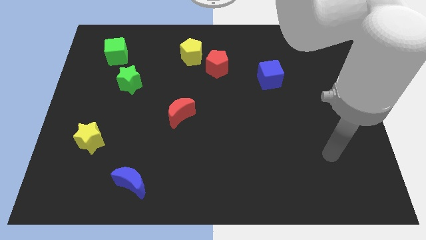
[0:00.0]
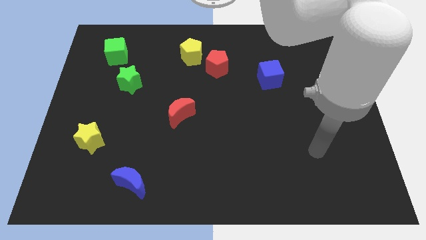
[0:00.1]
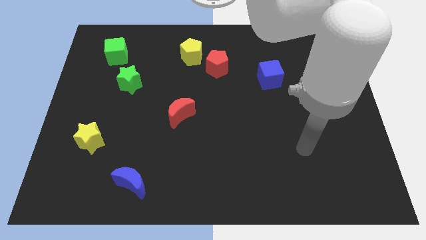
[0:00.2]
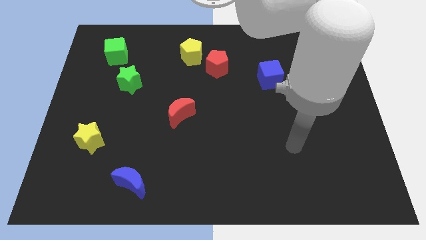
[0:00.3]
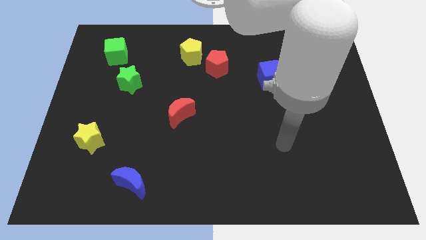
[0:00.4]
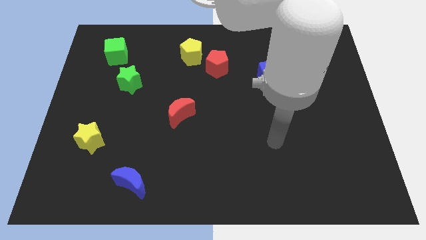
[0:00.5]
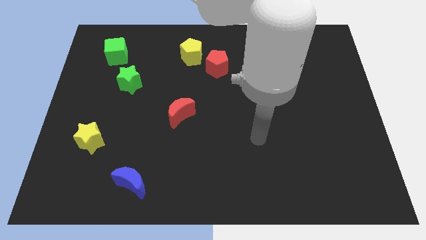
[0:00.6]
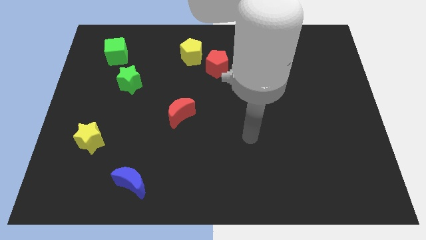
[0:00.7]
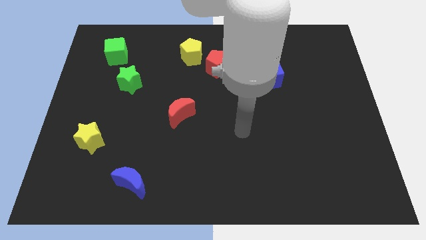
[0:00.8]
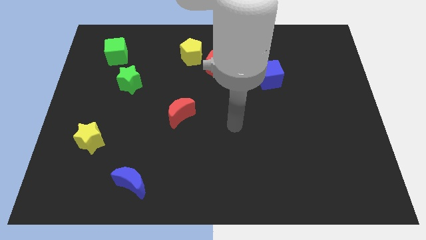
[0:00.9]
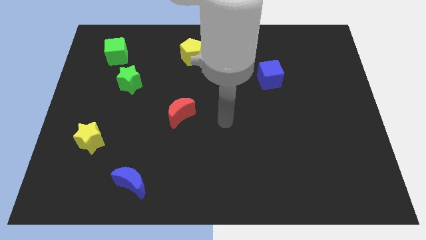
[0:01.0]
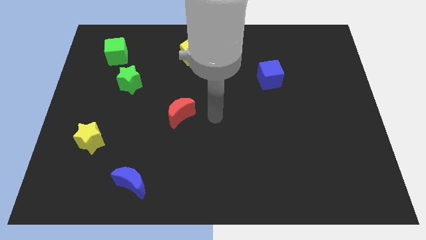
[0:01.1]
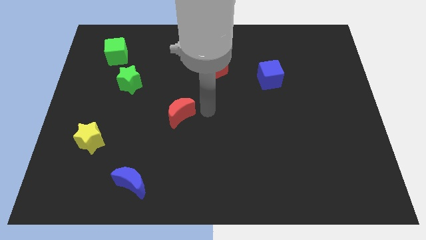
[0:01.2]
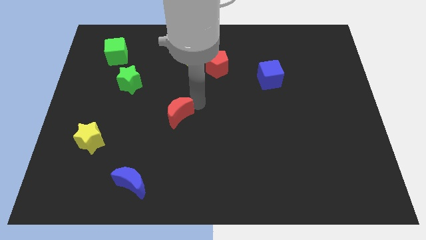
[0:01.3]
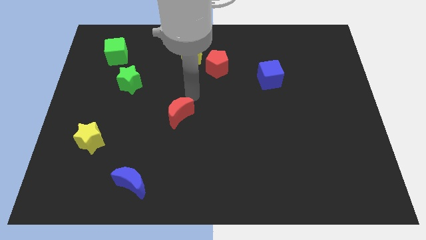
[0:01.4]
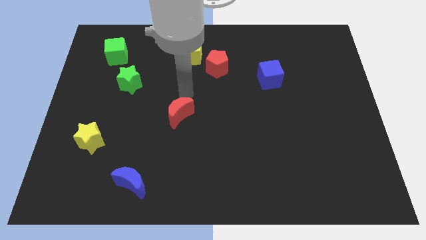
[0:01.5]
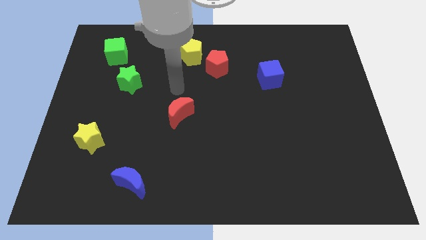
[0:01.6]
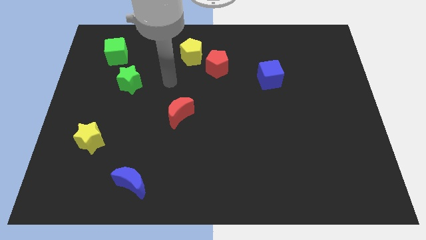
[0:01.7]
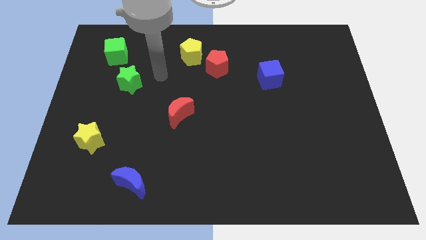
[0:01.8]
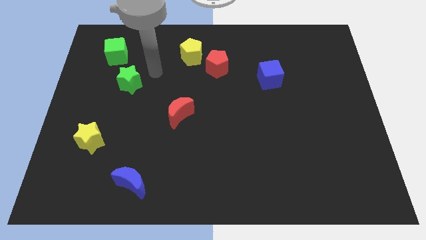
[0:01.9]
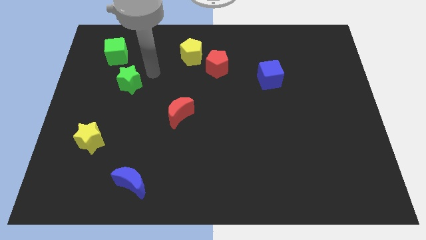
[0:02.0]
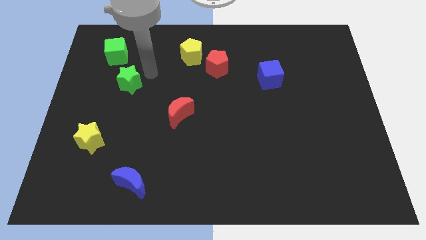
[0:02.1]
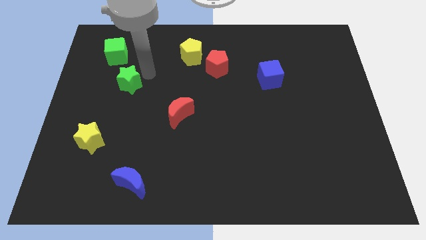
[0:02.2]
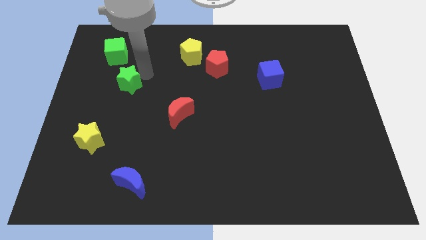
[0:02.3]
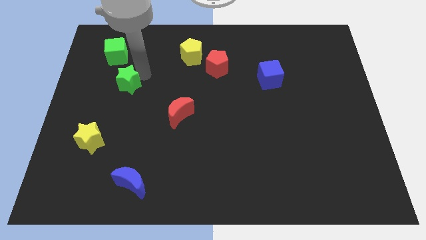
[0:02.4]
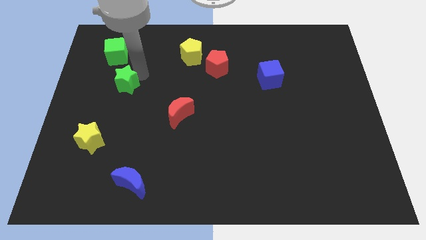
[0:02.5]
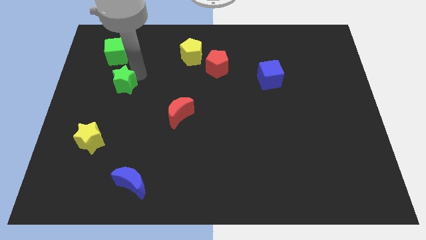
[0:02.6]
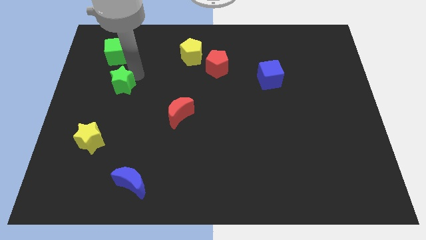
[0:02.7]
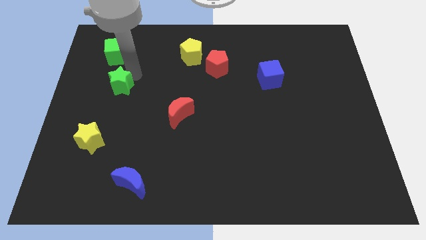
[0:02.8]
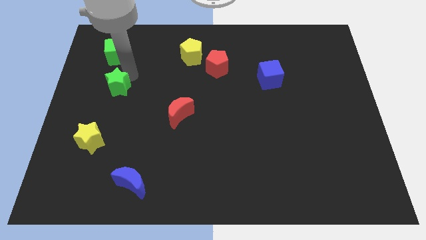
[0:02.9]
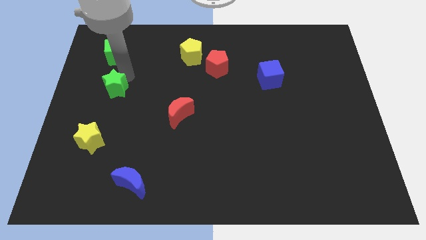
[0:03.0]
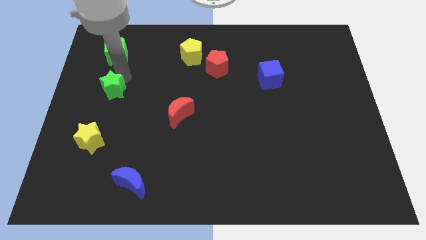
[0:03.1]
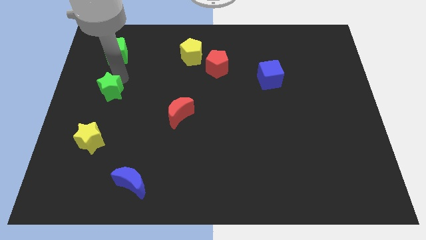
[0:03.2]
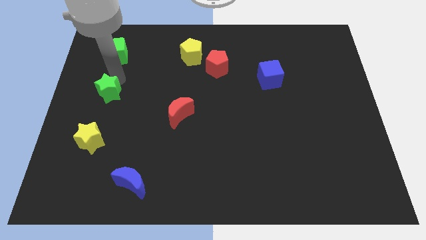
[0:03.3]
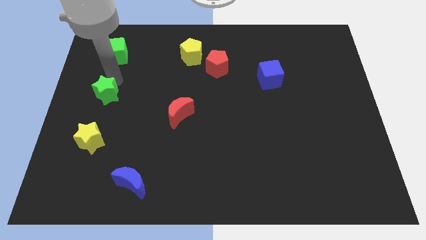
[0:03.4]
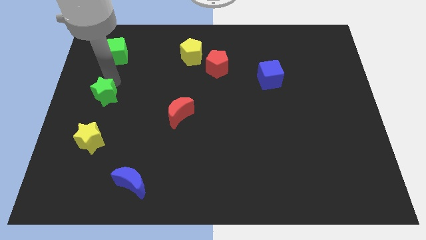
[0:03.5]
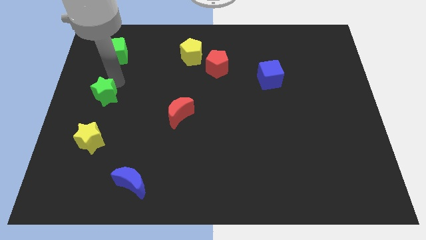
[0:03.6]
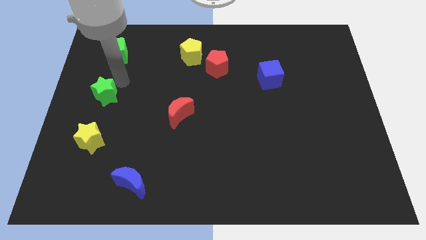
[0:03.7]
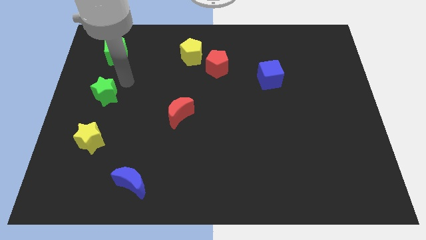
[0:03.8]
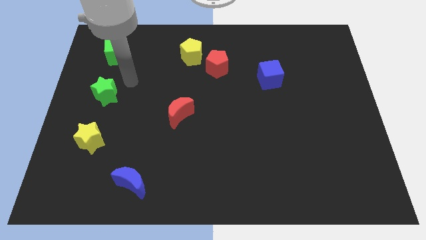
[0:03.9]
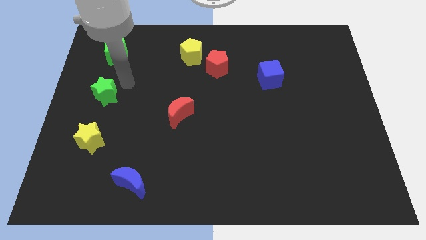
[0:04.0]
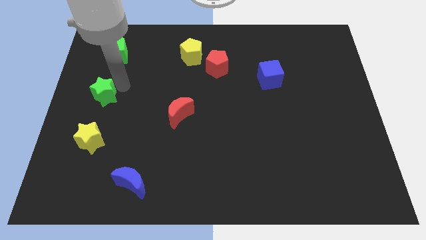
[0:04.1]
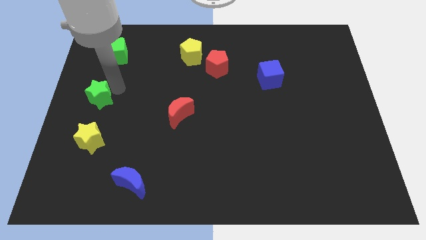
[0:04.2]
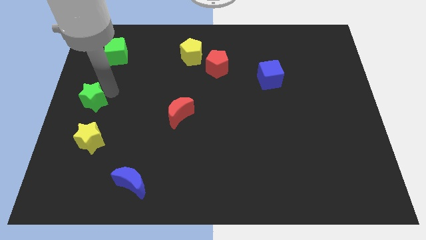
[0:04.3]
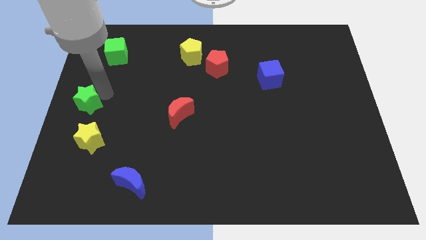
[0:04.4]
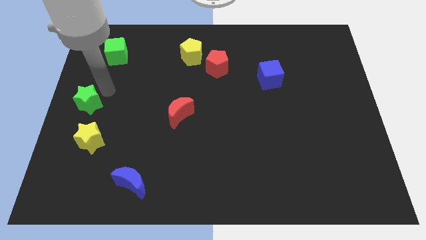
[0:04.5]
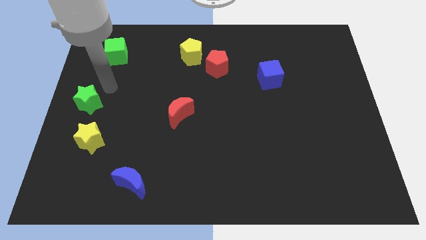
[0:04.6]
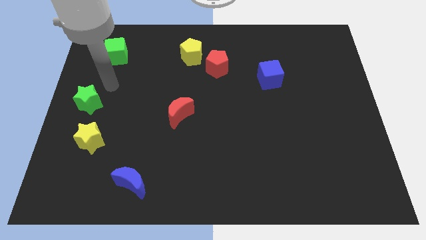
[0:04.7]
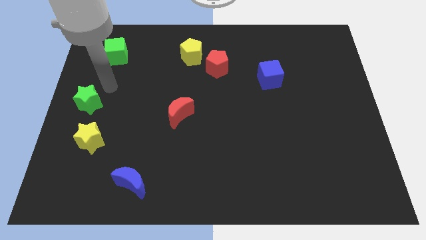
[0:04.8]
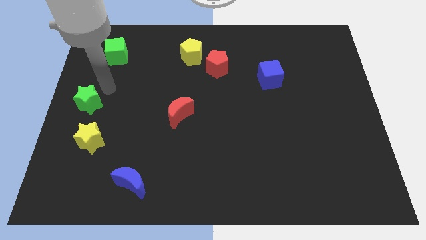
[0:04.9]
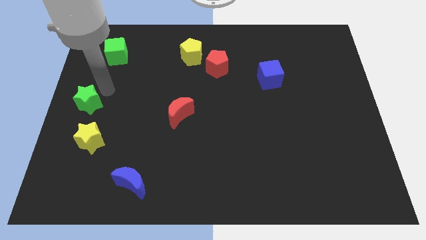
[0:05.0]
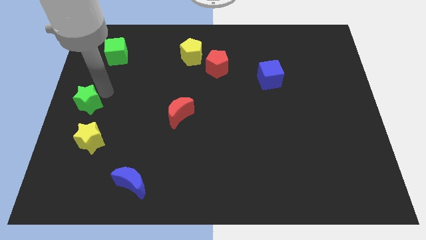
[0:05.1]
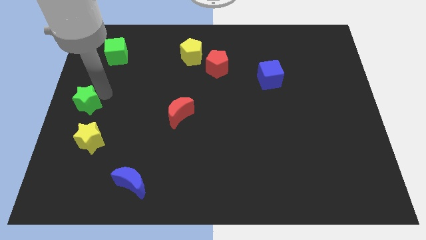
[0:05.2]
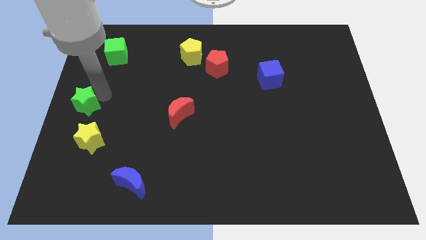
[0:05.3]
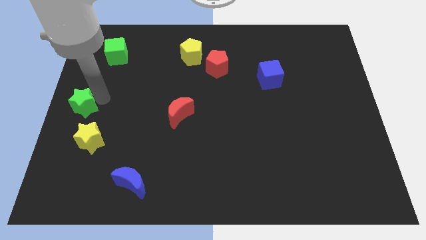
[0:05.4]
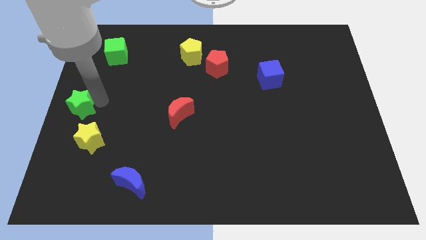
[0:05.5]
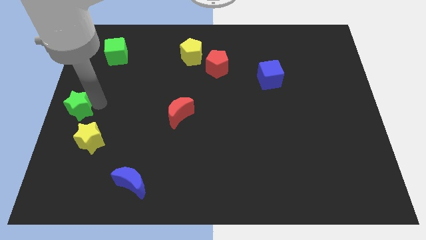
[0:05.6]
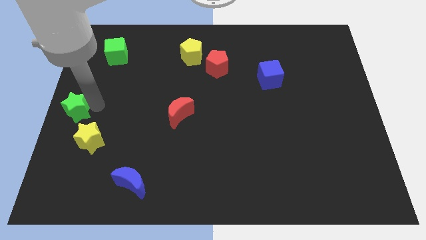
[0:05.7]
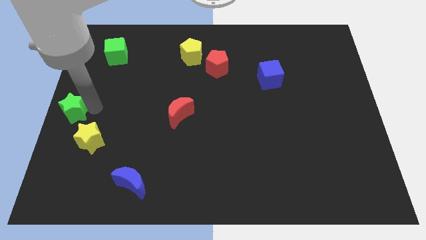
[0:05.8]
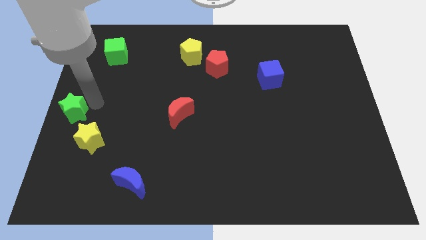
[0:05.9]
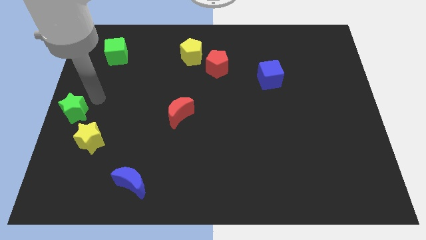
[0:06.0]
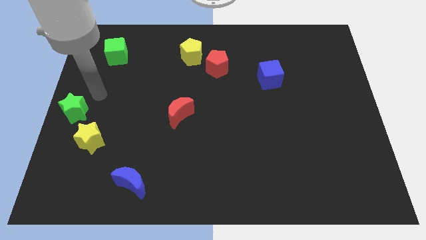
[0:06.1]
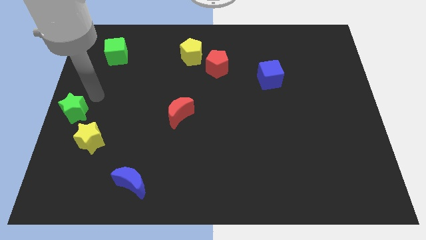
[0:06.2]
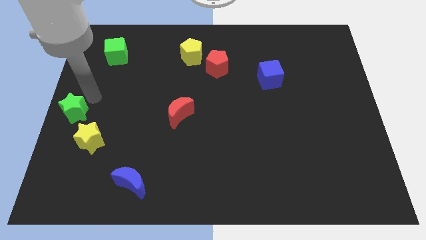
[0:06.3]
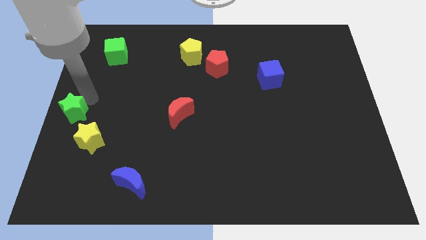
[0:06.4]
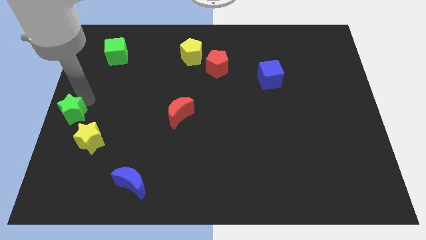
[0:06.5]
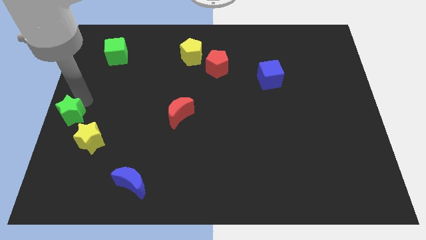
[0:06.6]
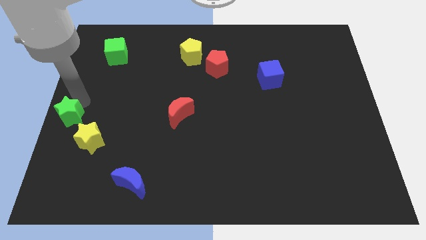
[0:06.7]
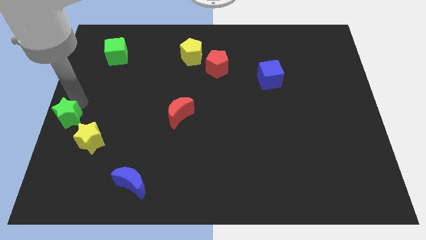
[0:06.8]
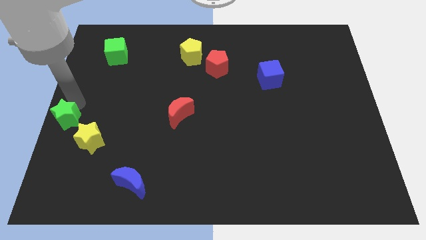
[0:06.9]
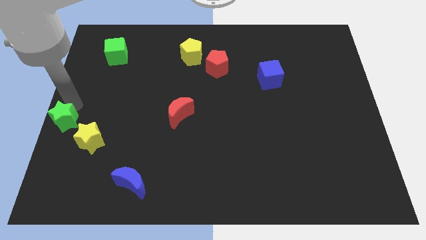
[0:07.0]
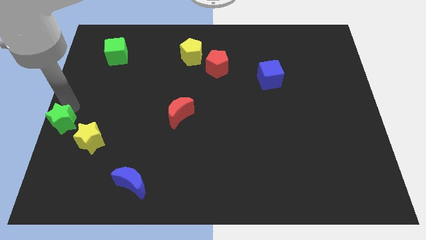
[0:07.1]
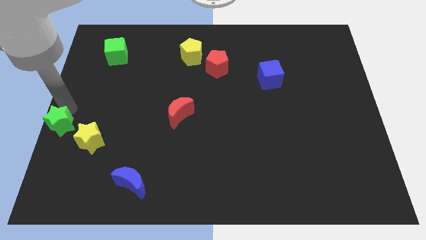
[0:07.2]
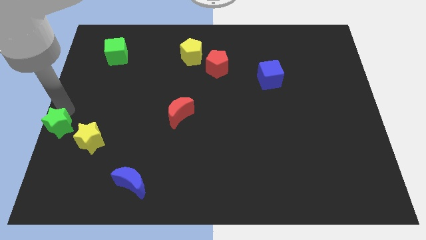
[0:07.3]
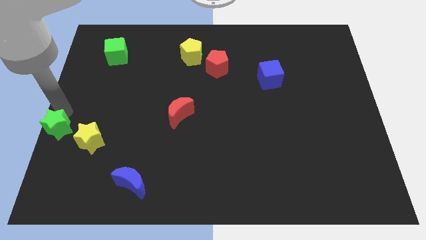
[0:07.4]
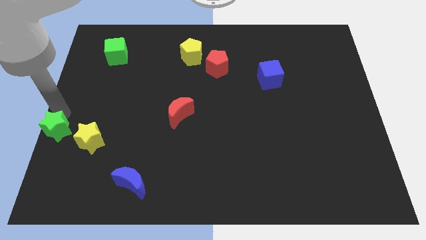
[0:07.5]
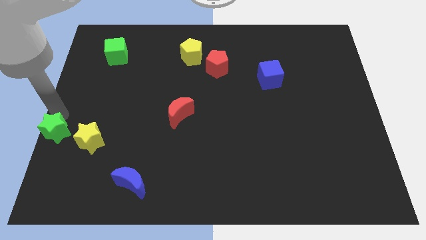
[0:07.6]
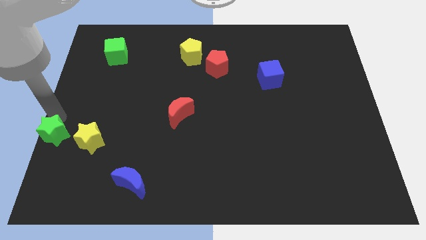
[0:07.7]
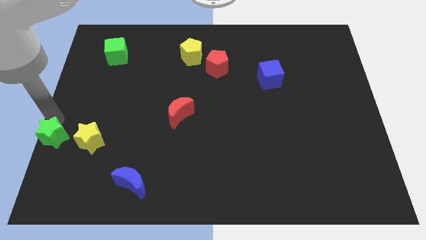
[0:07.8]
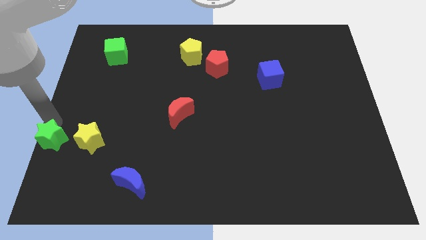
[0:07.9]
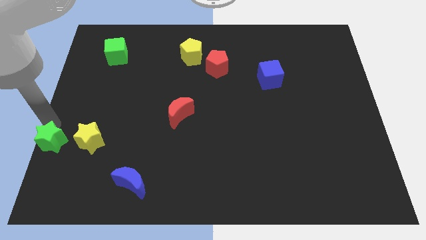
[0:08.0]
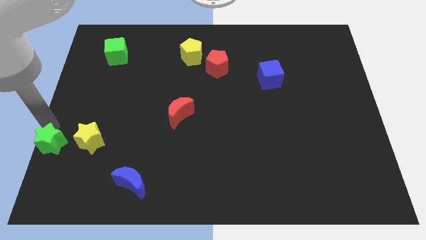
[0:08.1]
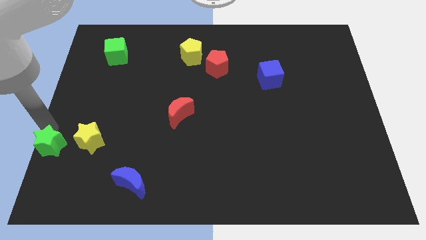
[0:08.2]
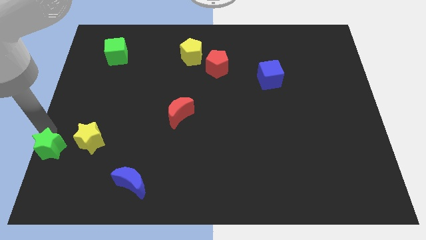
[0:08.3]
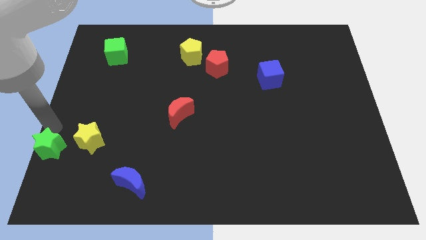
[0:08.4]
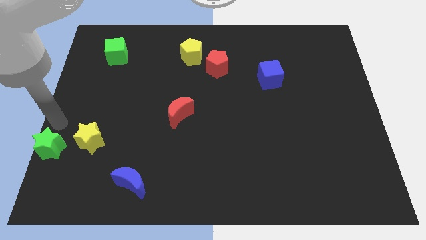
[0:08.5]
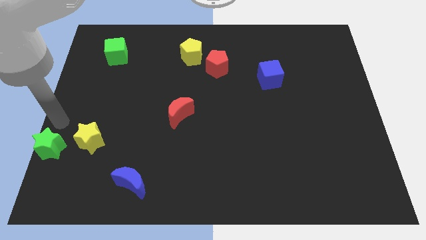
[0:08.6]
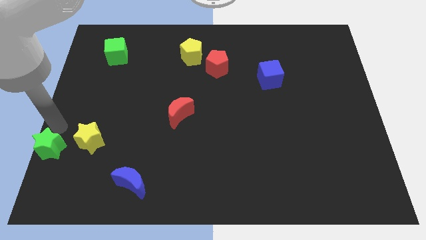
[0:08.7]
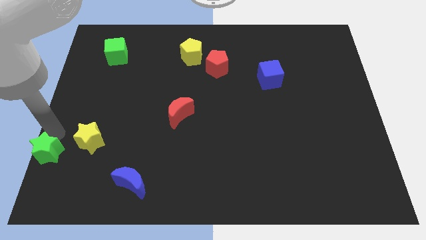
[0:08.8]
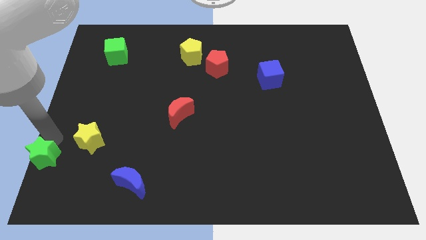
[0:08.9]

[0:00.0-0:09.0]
move the green star to the bottom left of the board

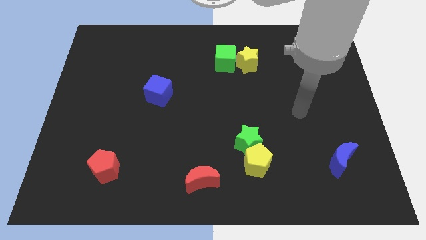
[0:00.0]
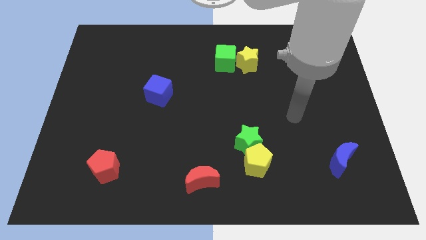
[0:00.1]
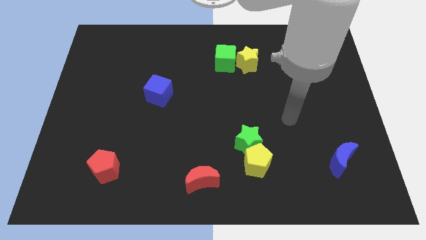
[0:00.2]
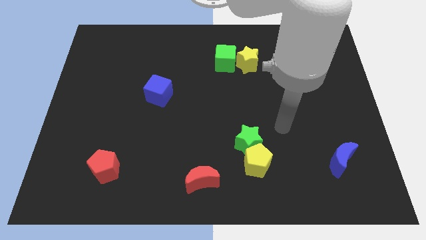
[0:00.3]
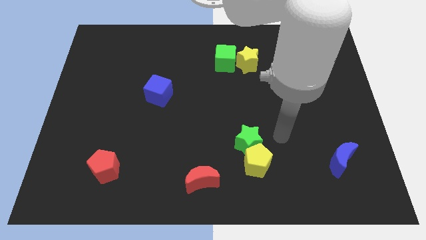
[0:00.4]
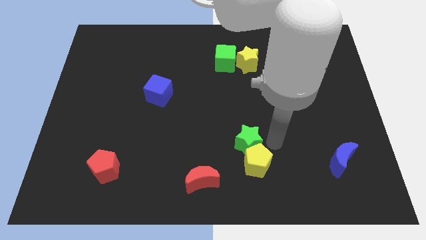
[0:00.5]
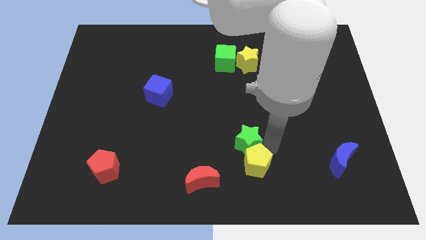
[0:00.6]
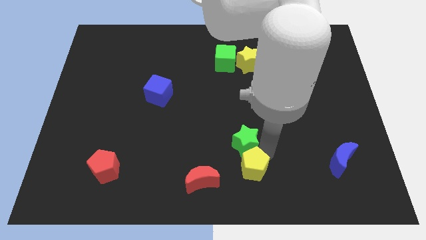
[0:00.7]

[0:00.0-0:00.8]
put the yellow pentagon to the bottom side
